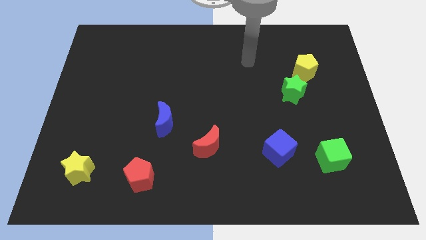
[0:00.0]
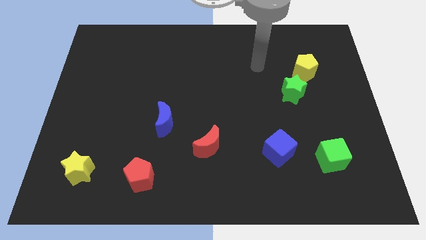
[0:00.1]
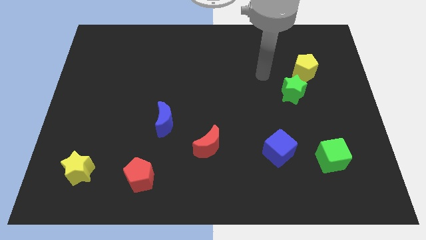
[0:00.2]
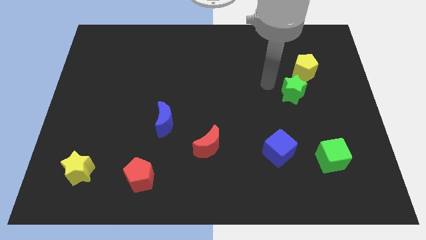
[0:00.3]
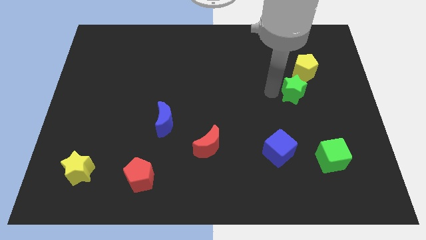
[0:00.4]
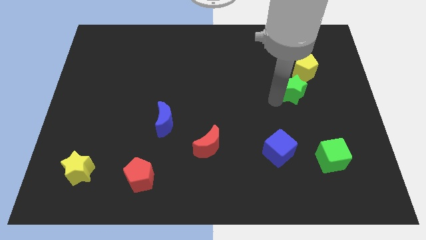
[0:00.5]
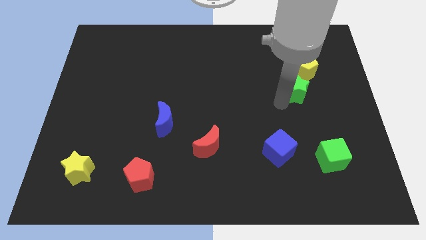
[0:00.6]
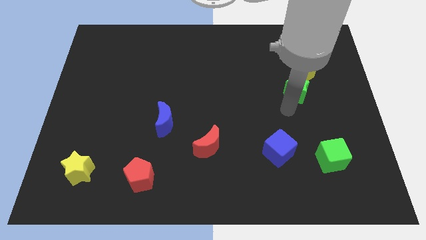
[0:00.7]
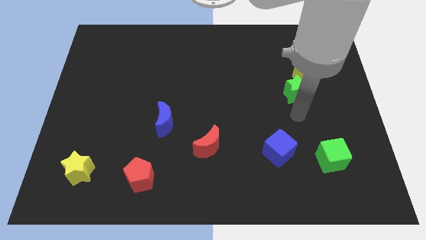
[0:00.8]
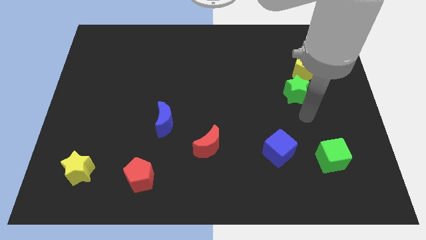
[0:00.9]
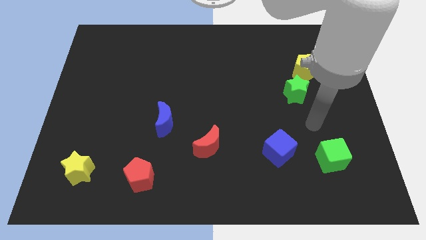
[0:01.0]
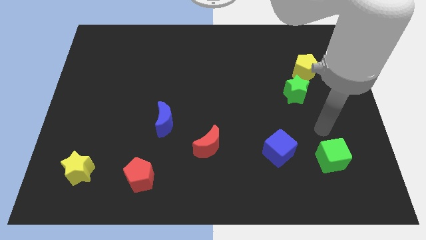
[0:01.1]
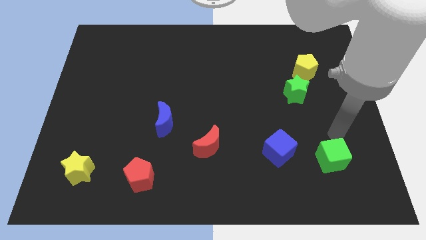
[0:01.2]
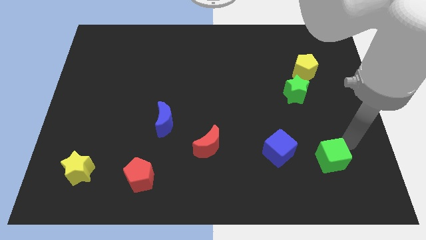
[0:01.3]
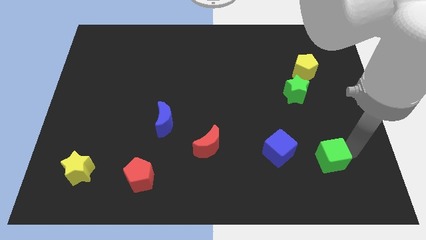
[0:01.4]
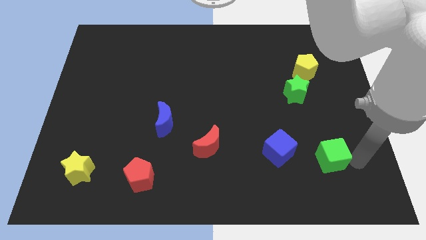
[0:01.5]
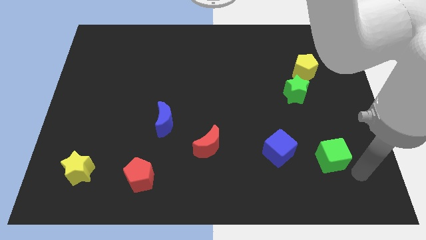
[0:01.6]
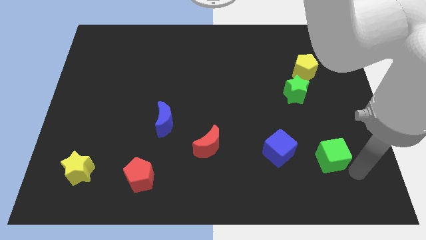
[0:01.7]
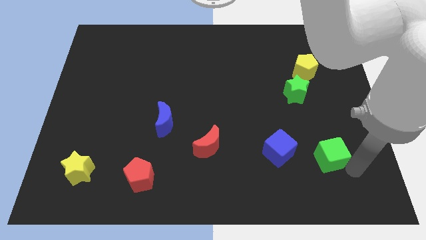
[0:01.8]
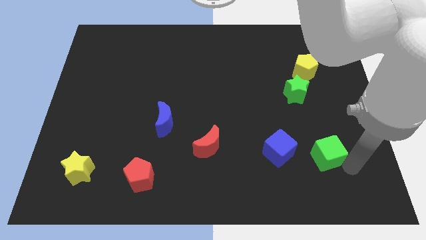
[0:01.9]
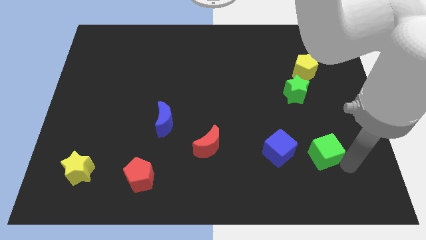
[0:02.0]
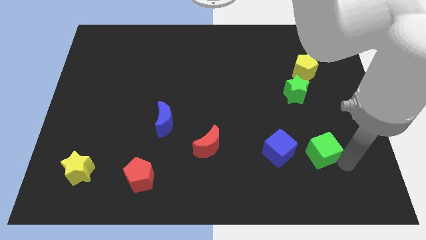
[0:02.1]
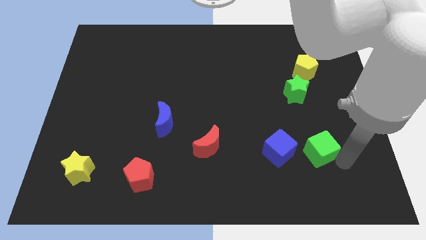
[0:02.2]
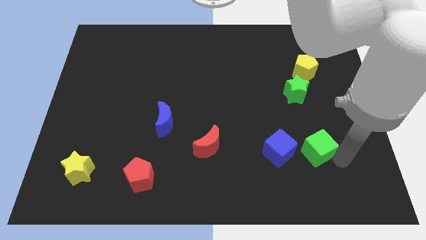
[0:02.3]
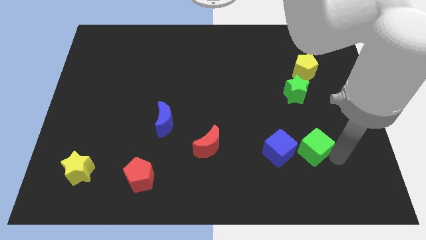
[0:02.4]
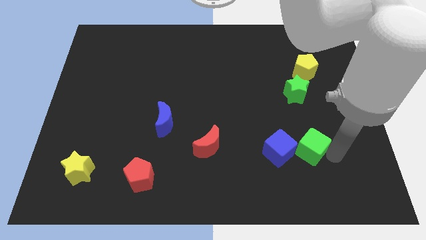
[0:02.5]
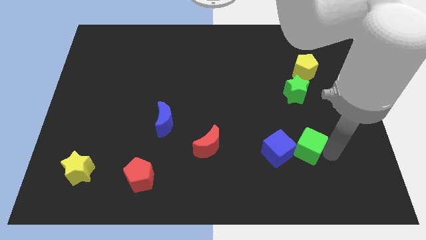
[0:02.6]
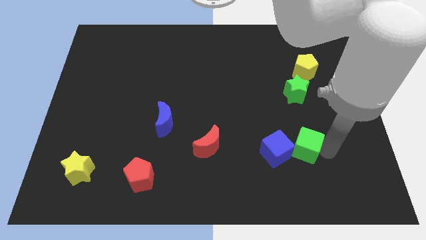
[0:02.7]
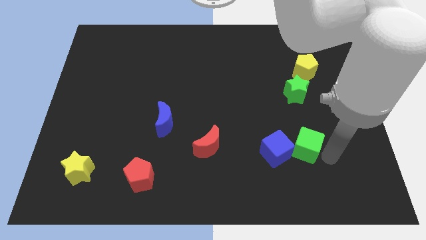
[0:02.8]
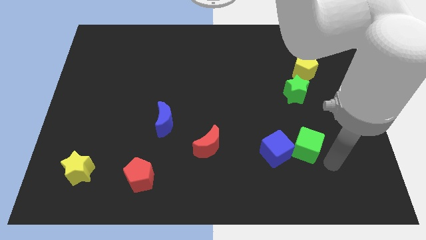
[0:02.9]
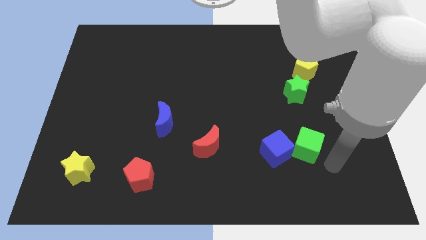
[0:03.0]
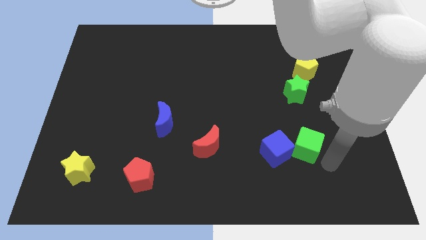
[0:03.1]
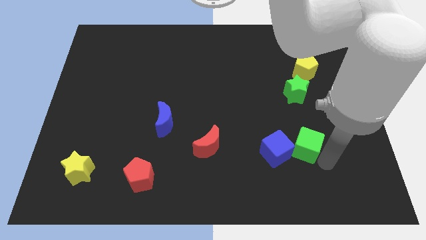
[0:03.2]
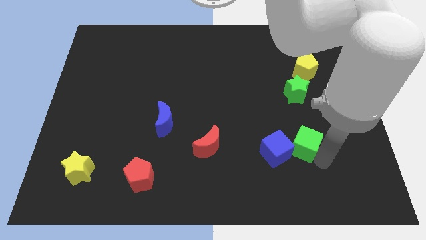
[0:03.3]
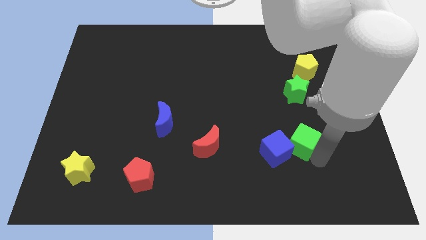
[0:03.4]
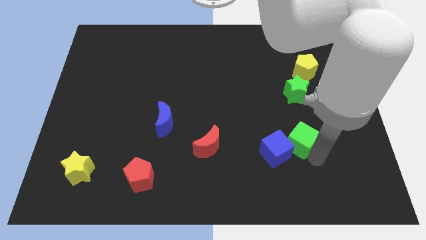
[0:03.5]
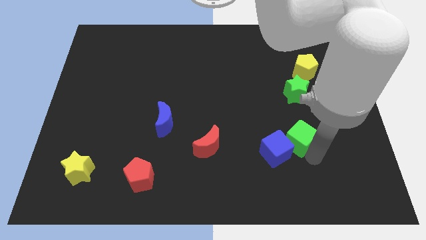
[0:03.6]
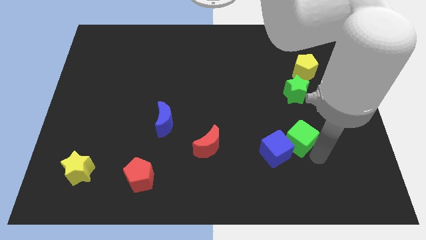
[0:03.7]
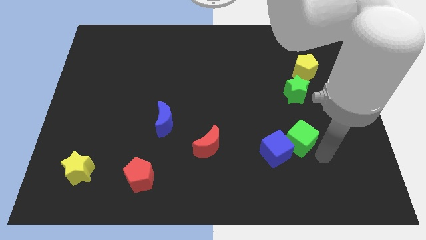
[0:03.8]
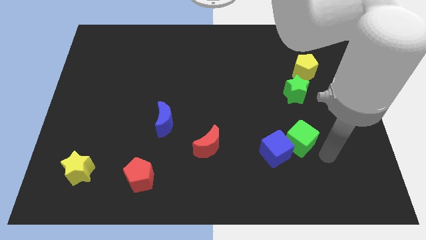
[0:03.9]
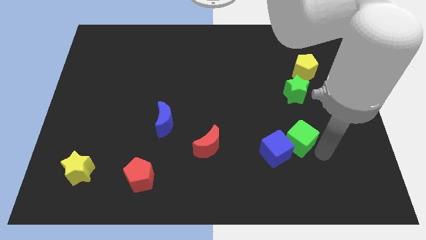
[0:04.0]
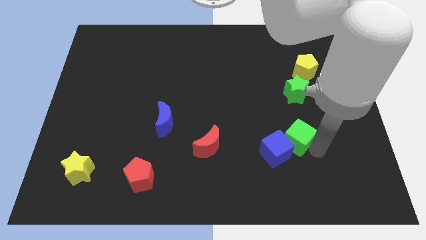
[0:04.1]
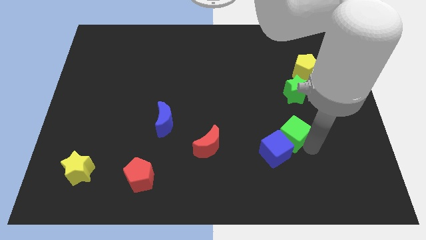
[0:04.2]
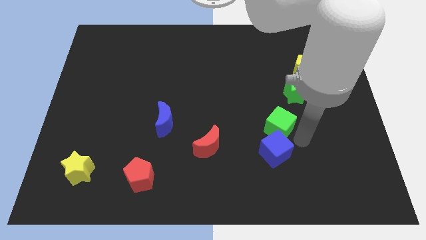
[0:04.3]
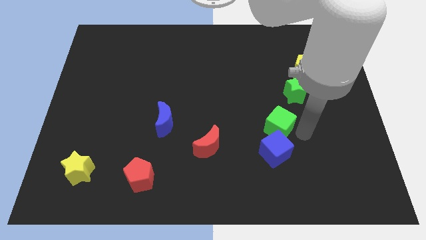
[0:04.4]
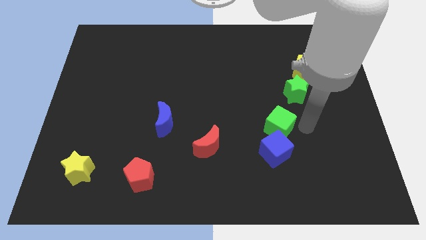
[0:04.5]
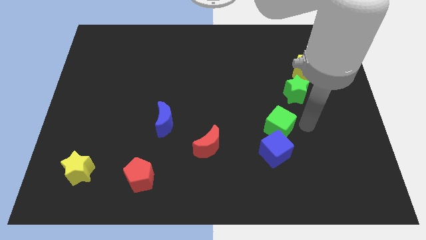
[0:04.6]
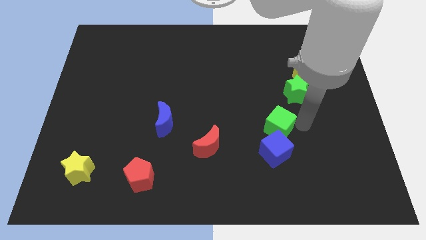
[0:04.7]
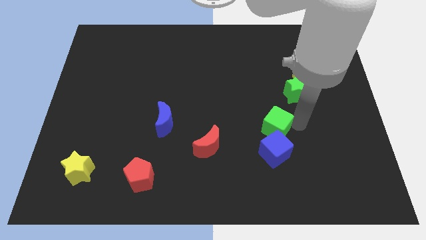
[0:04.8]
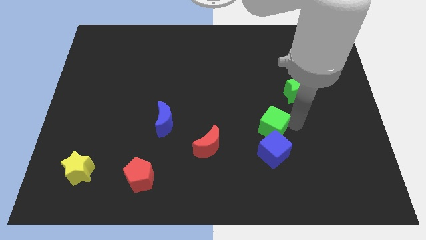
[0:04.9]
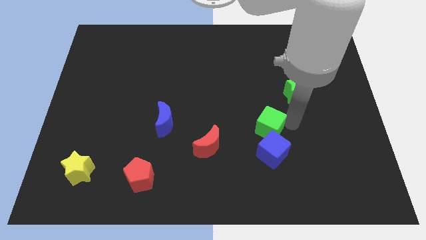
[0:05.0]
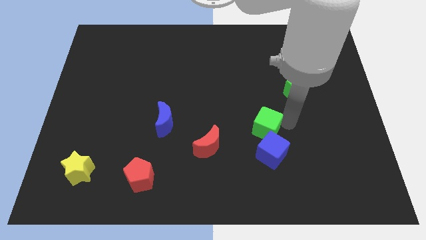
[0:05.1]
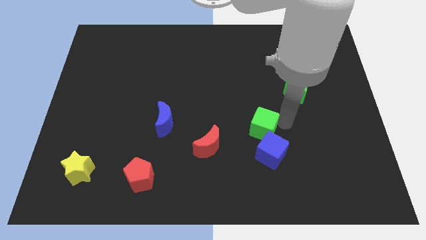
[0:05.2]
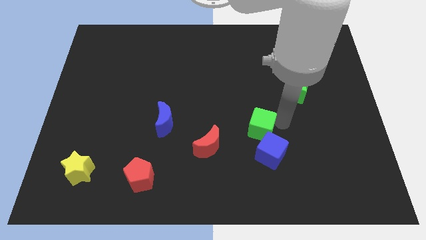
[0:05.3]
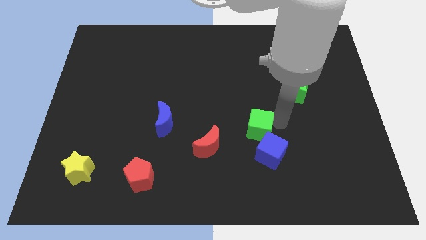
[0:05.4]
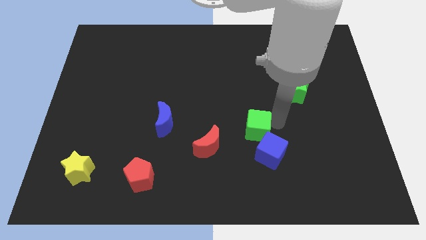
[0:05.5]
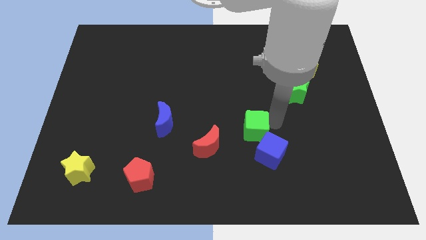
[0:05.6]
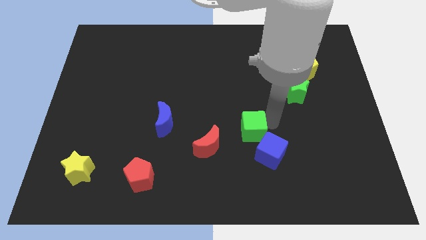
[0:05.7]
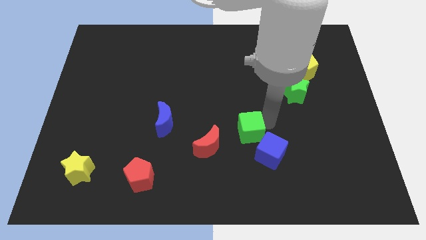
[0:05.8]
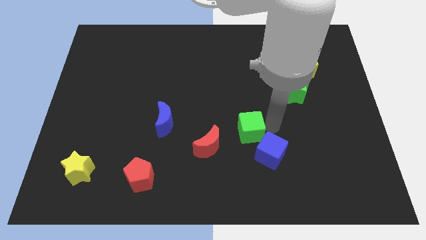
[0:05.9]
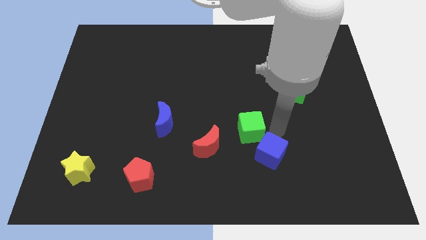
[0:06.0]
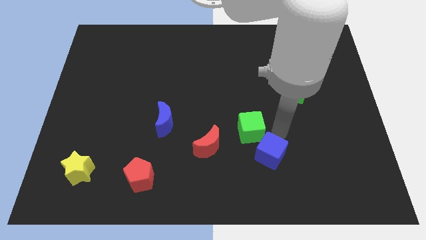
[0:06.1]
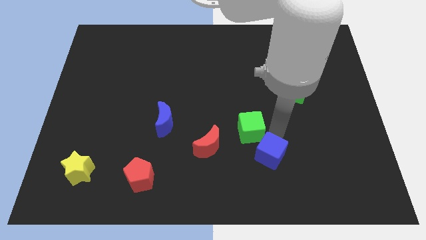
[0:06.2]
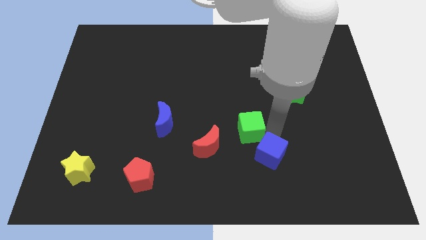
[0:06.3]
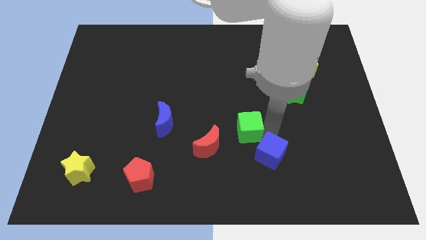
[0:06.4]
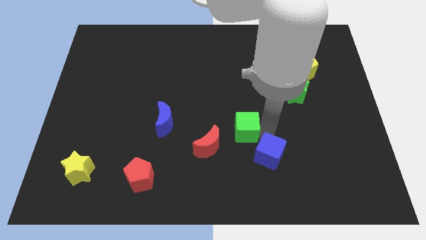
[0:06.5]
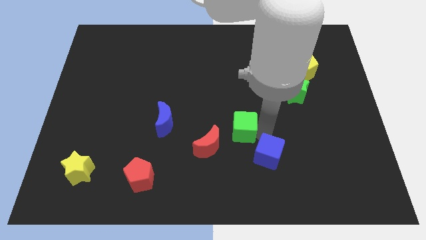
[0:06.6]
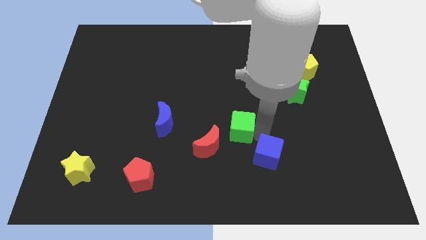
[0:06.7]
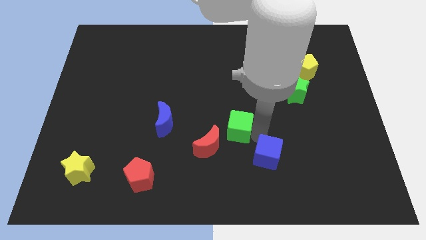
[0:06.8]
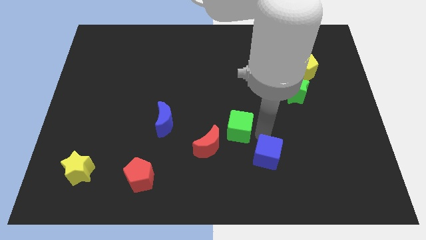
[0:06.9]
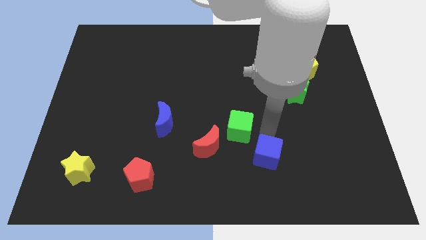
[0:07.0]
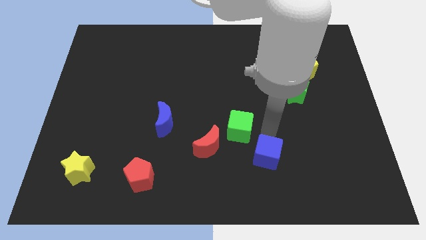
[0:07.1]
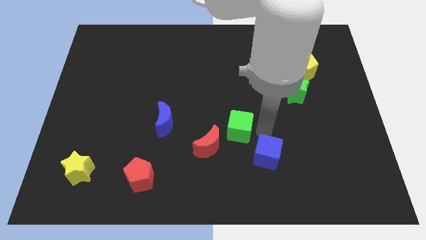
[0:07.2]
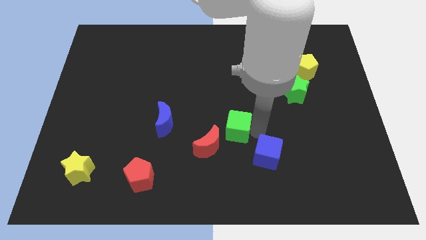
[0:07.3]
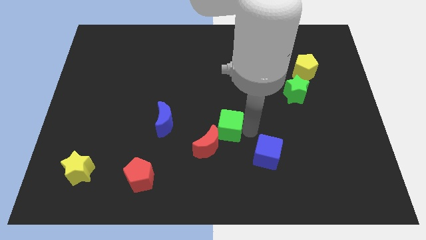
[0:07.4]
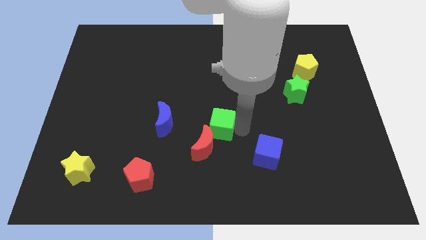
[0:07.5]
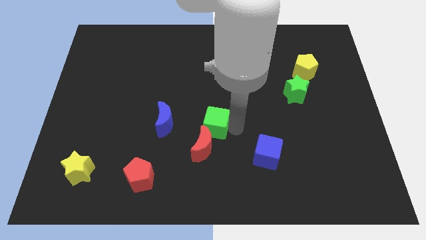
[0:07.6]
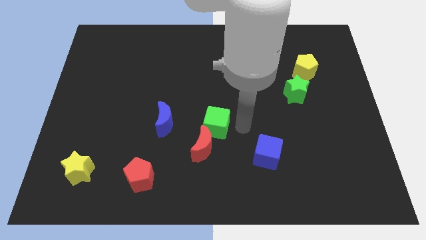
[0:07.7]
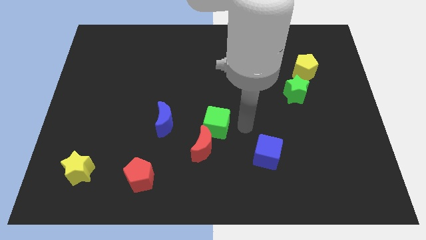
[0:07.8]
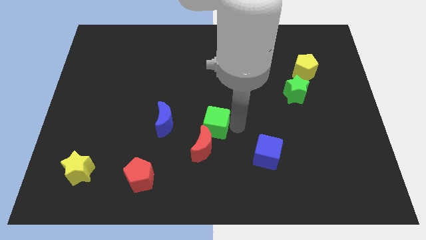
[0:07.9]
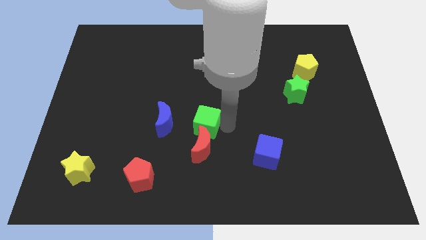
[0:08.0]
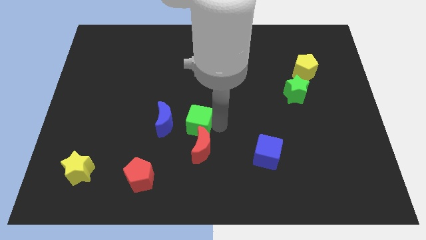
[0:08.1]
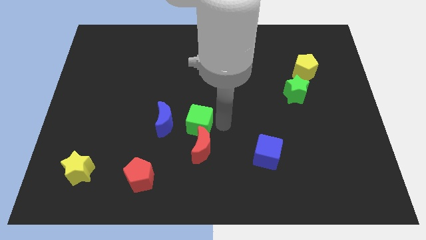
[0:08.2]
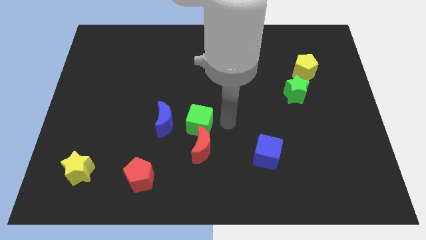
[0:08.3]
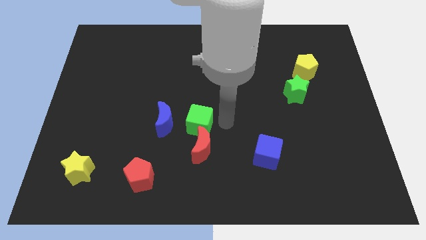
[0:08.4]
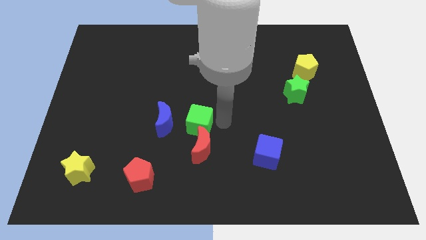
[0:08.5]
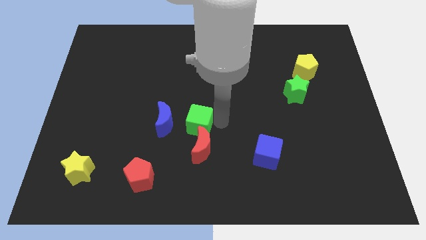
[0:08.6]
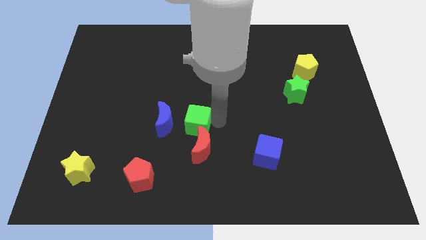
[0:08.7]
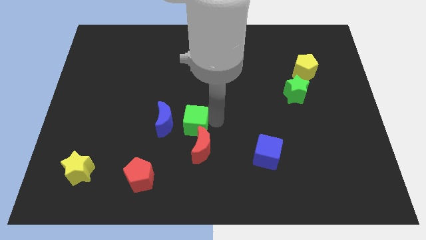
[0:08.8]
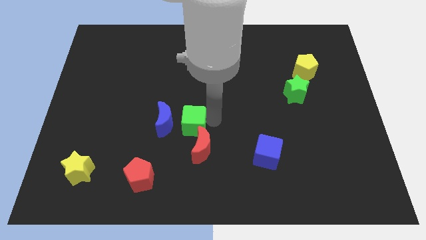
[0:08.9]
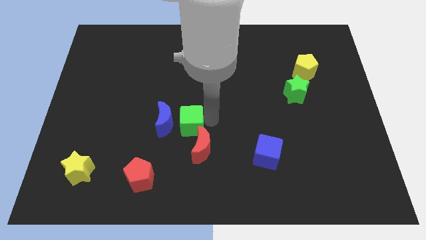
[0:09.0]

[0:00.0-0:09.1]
move the green cube close to the blue moon
